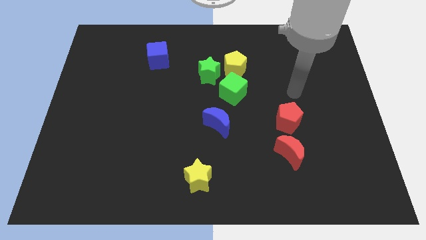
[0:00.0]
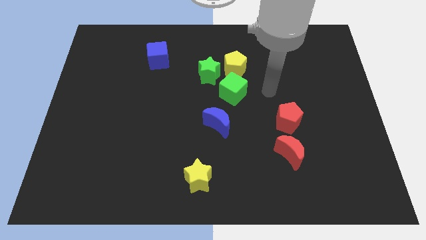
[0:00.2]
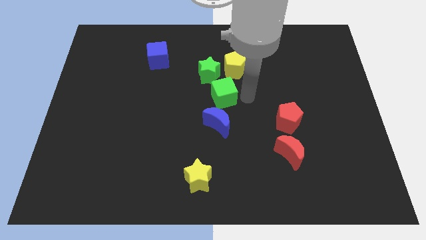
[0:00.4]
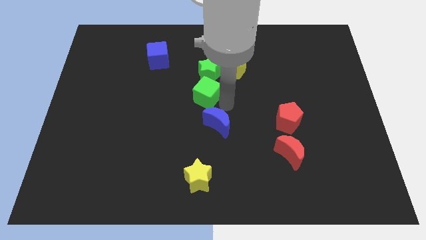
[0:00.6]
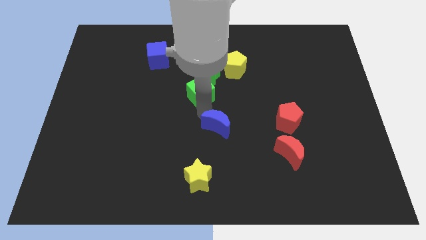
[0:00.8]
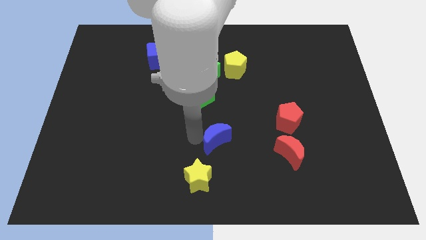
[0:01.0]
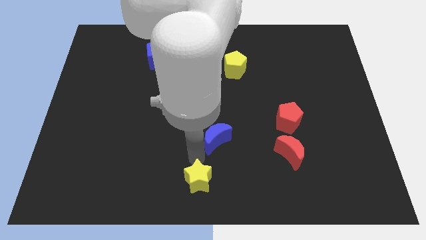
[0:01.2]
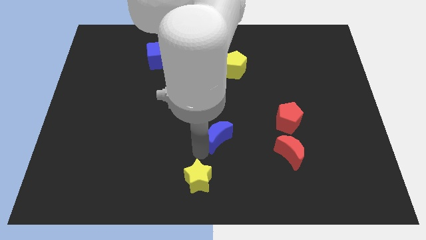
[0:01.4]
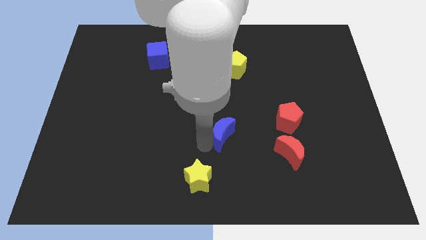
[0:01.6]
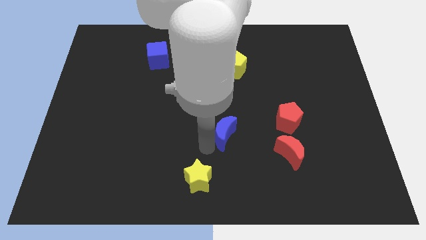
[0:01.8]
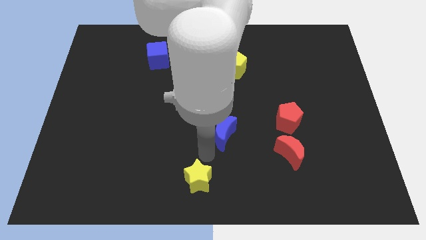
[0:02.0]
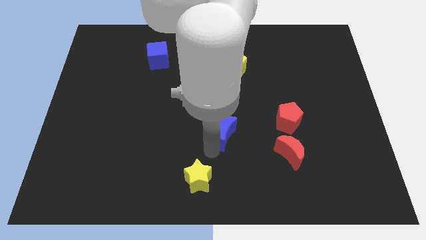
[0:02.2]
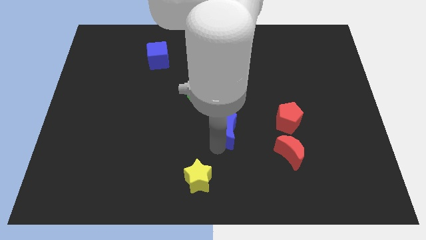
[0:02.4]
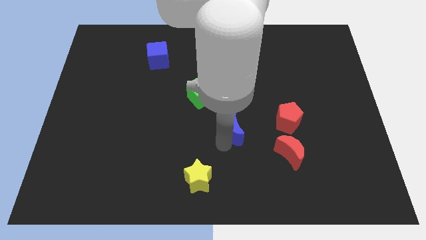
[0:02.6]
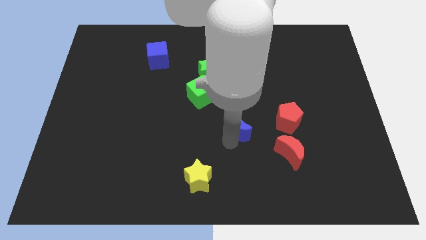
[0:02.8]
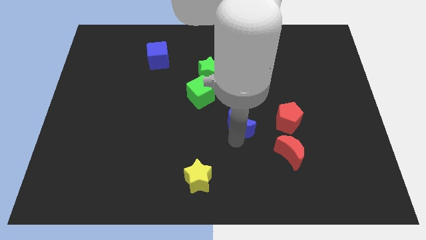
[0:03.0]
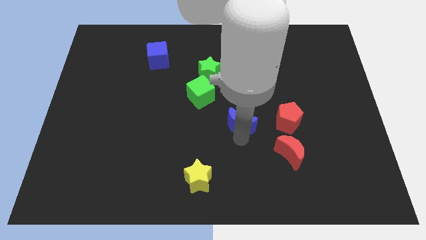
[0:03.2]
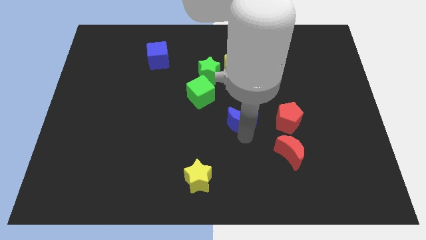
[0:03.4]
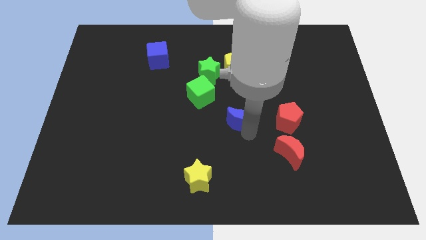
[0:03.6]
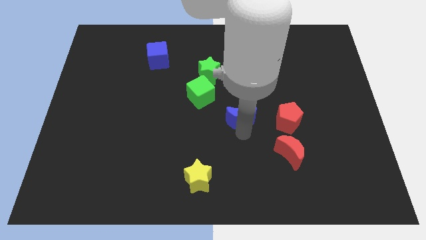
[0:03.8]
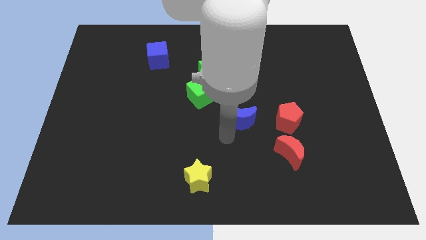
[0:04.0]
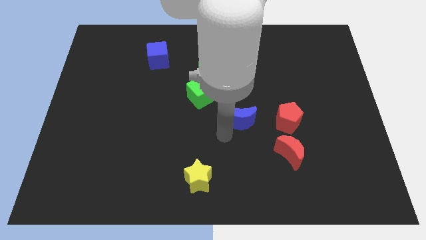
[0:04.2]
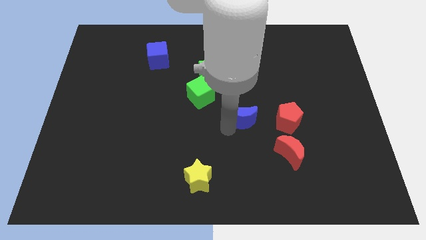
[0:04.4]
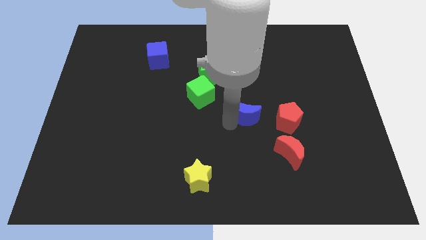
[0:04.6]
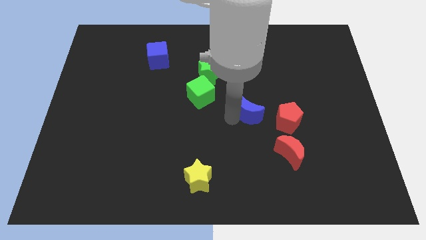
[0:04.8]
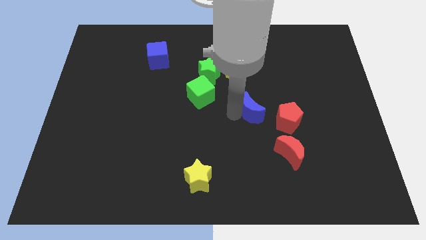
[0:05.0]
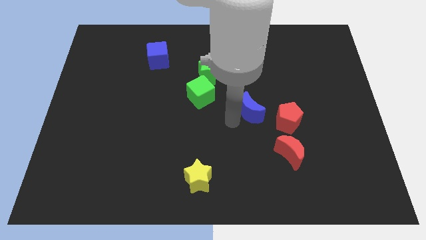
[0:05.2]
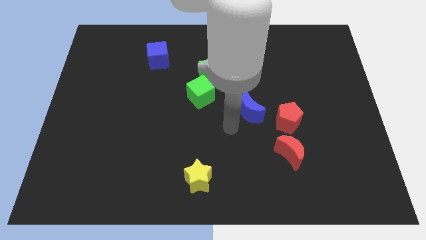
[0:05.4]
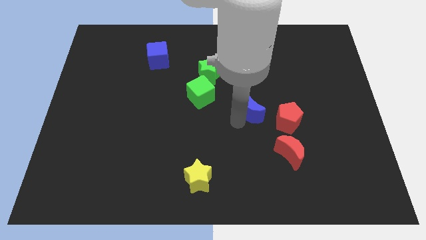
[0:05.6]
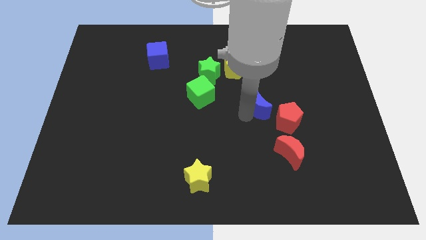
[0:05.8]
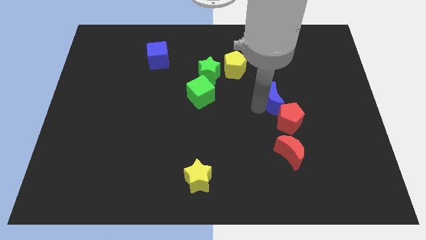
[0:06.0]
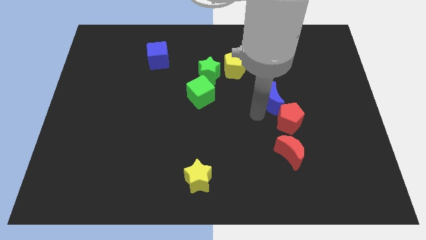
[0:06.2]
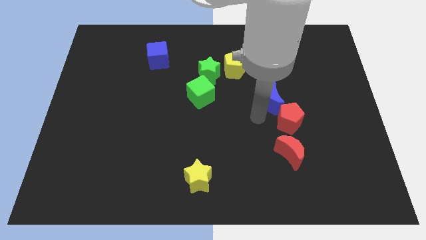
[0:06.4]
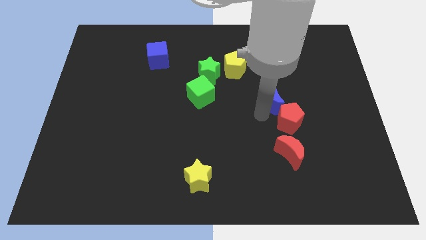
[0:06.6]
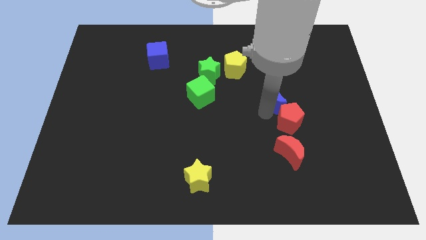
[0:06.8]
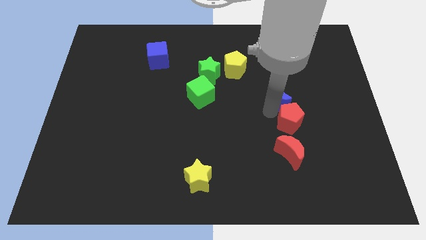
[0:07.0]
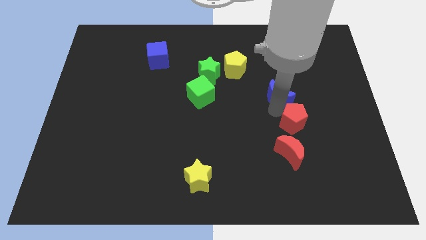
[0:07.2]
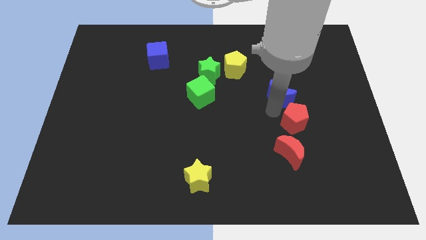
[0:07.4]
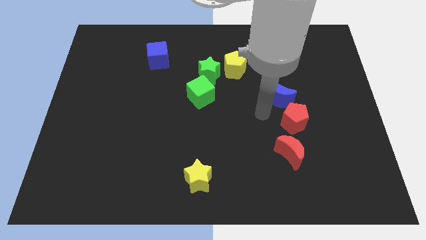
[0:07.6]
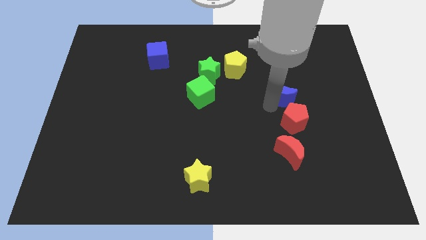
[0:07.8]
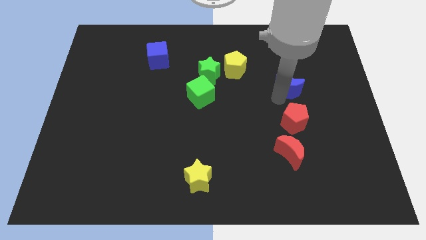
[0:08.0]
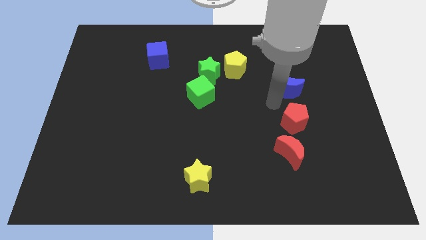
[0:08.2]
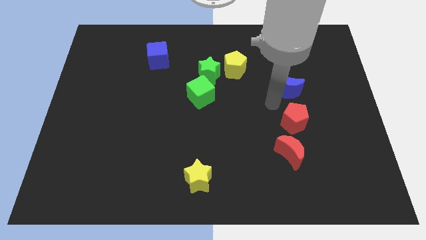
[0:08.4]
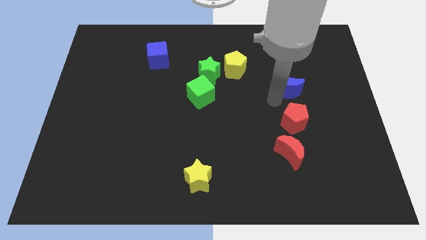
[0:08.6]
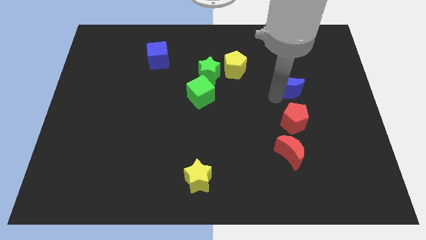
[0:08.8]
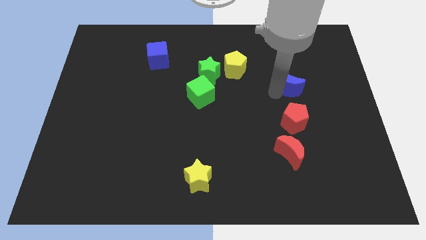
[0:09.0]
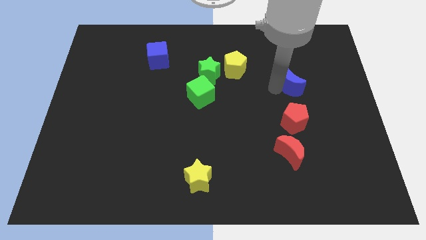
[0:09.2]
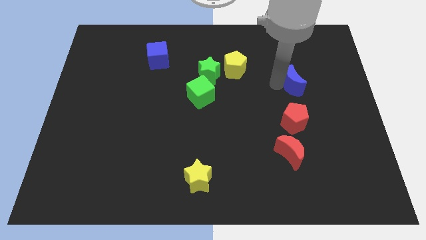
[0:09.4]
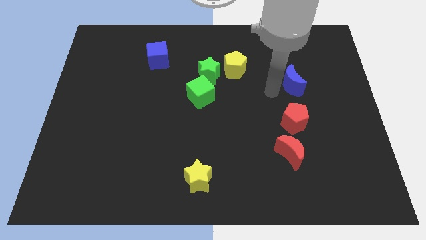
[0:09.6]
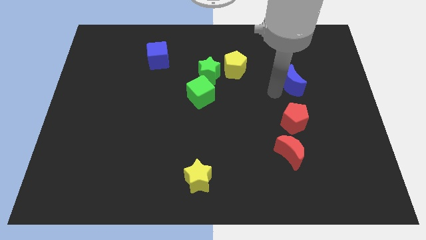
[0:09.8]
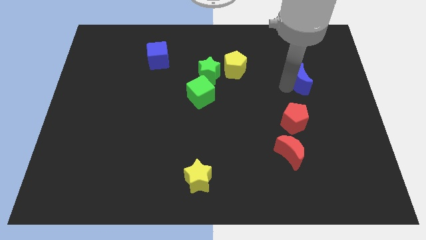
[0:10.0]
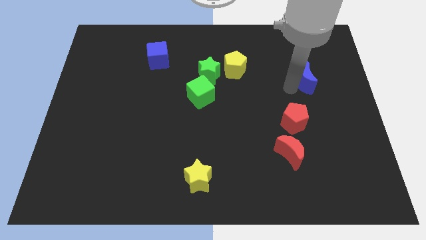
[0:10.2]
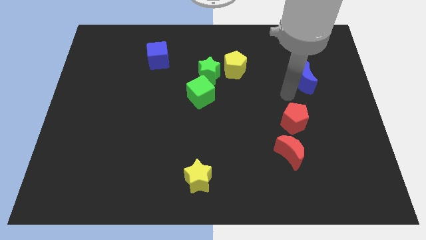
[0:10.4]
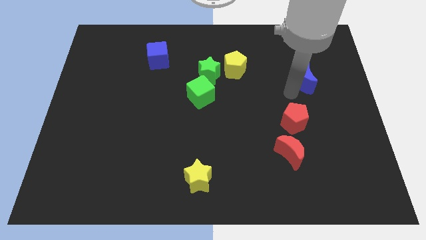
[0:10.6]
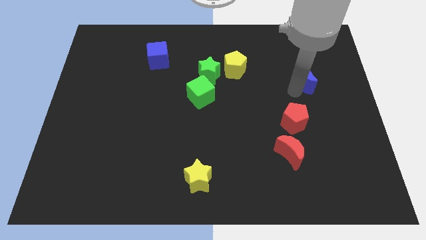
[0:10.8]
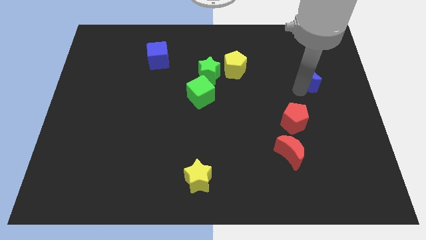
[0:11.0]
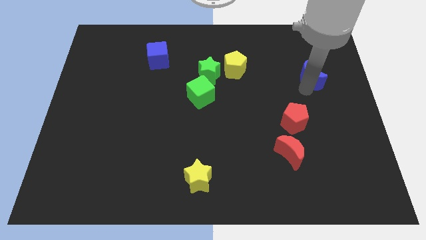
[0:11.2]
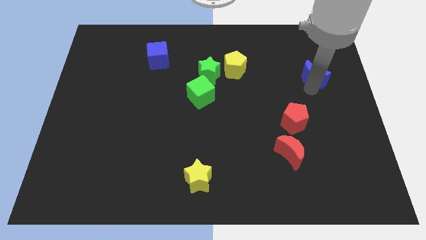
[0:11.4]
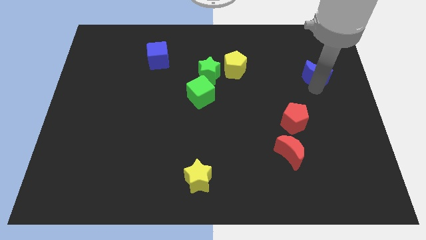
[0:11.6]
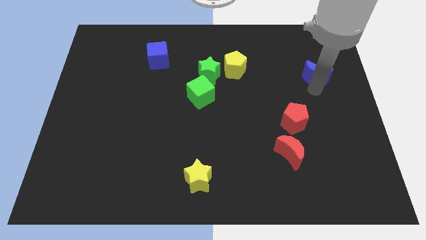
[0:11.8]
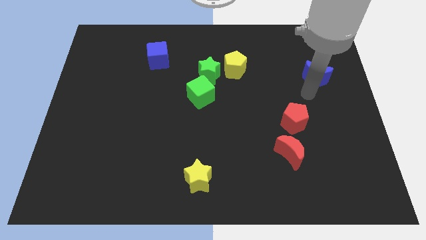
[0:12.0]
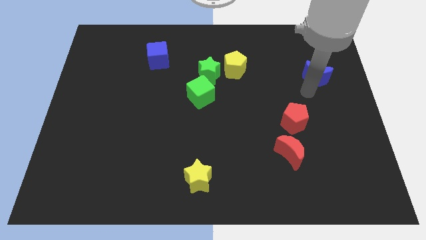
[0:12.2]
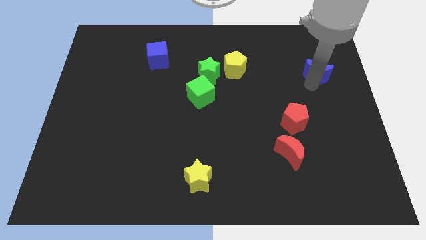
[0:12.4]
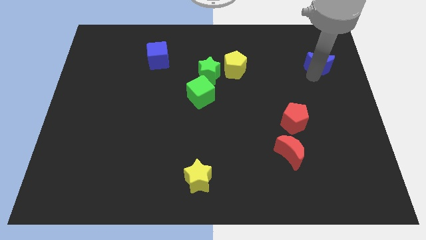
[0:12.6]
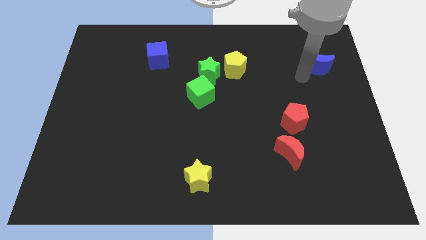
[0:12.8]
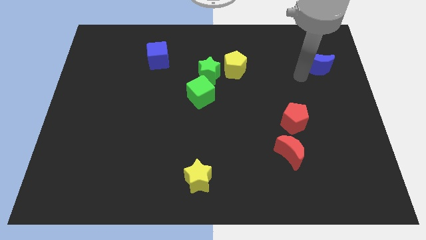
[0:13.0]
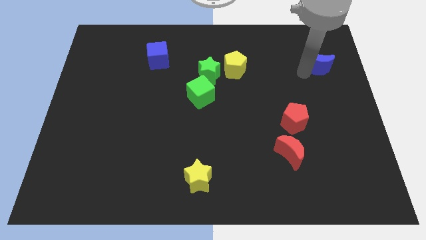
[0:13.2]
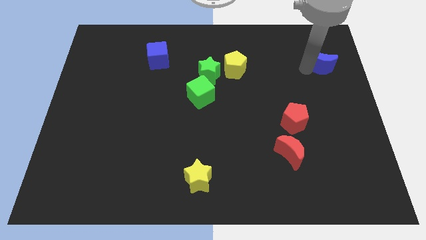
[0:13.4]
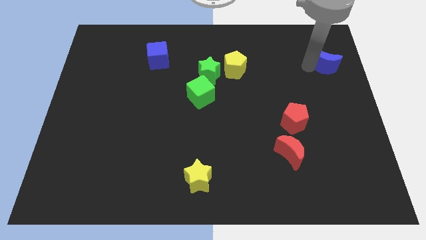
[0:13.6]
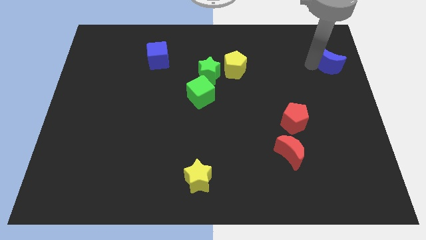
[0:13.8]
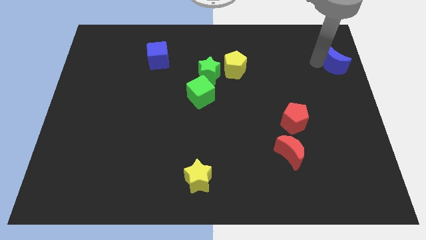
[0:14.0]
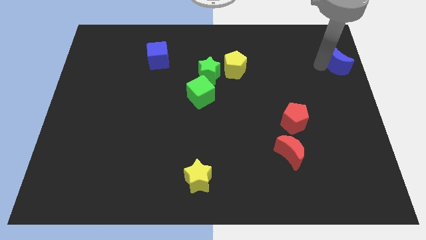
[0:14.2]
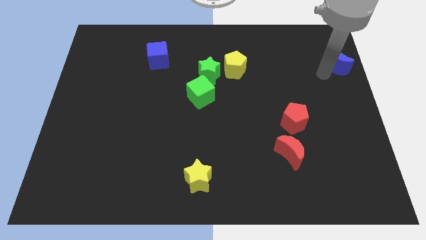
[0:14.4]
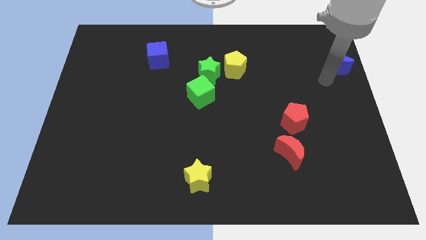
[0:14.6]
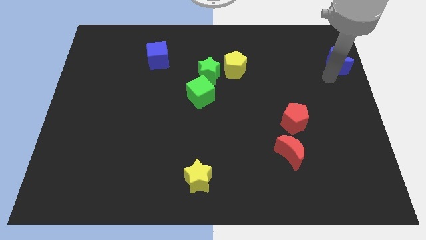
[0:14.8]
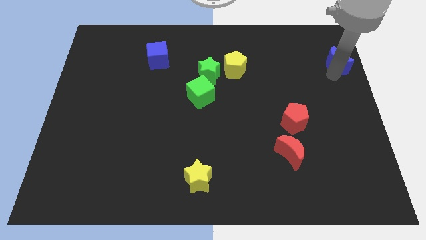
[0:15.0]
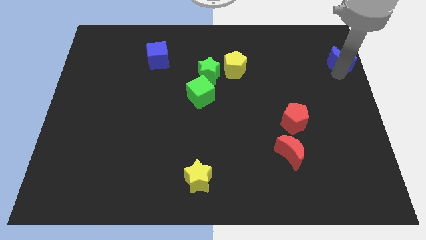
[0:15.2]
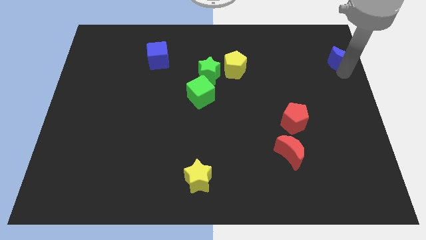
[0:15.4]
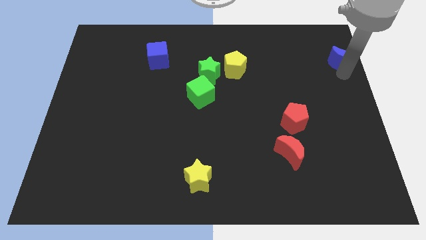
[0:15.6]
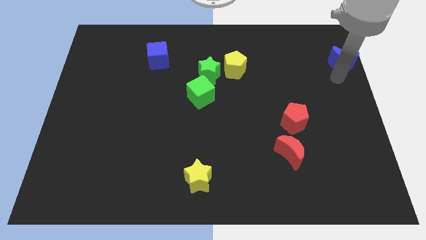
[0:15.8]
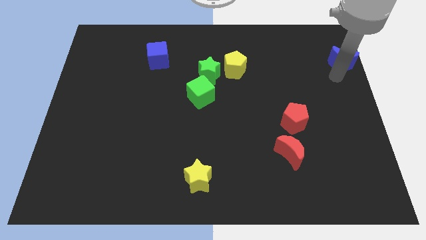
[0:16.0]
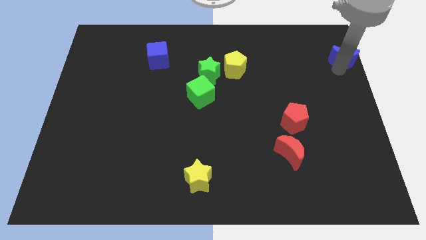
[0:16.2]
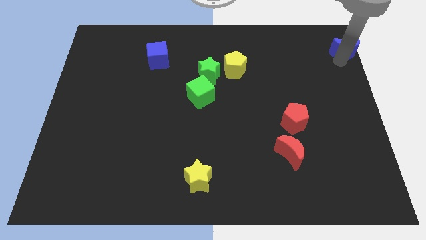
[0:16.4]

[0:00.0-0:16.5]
slide the blue moon to the top right
